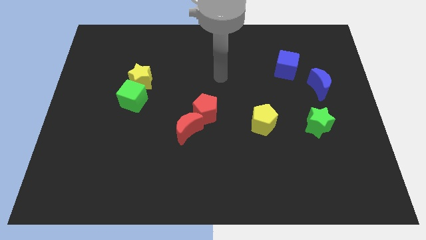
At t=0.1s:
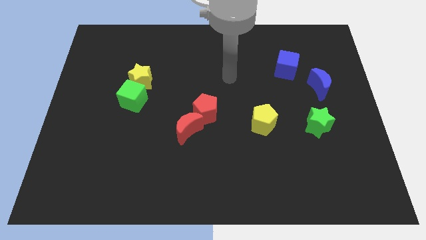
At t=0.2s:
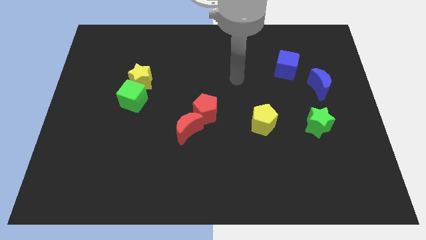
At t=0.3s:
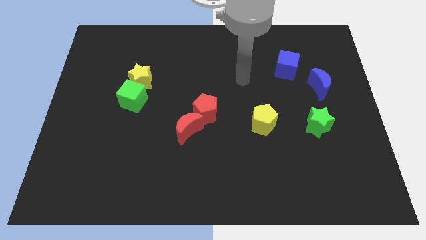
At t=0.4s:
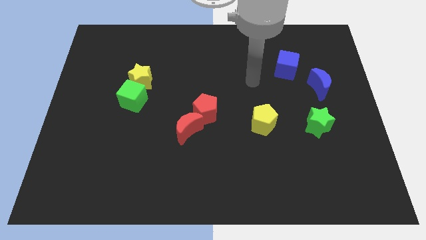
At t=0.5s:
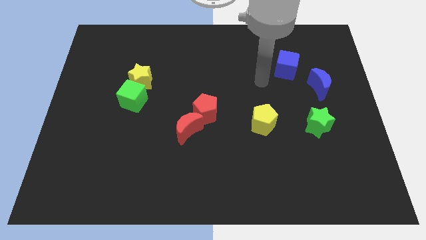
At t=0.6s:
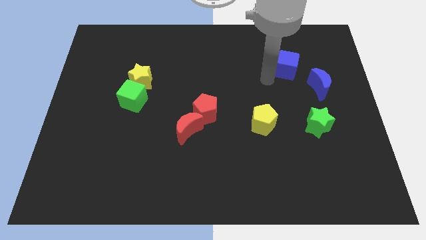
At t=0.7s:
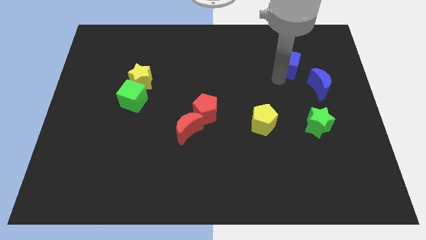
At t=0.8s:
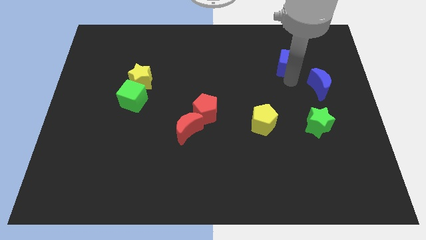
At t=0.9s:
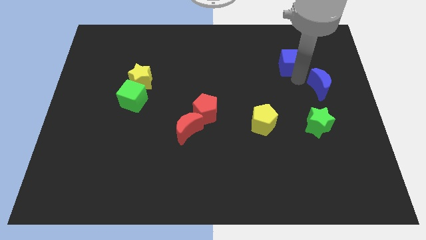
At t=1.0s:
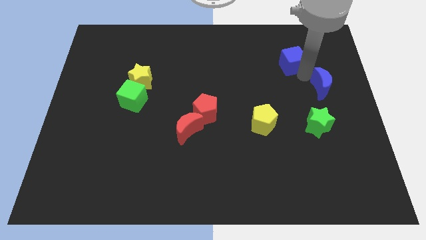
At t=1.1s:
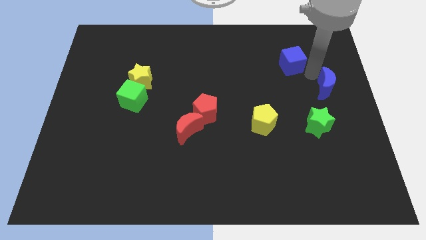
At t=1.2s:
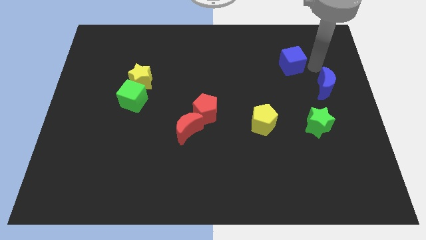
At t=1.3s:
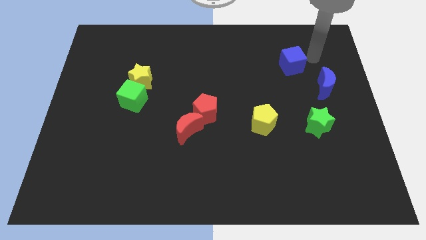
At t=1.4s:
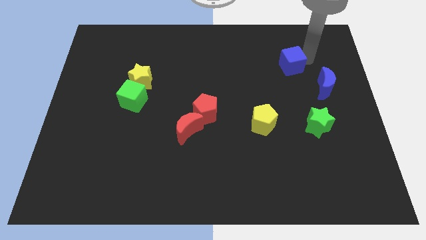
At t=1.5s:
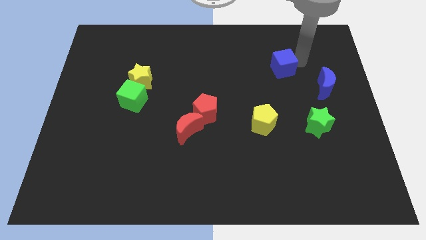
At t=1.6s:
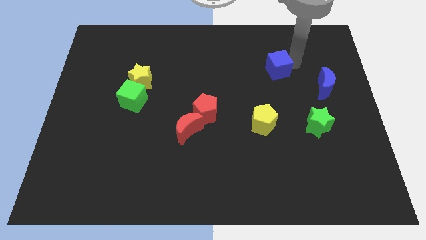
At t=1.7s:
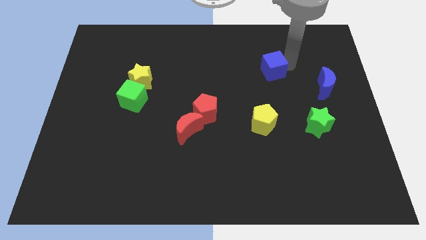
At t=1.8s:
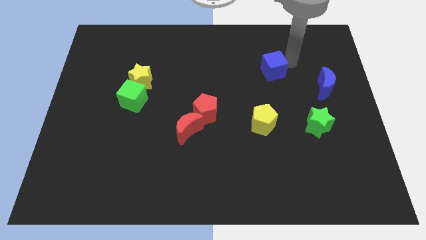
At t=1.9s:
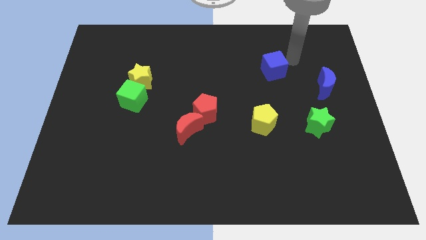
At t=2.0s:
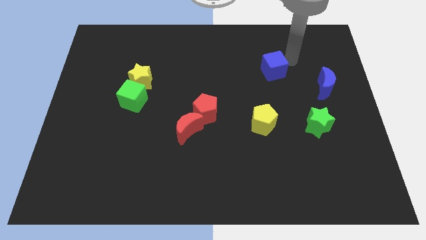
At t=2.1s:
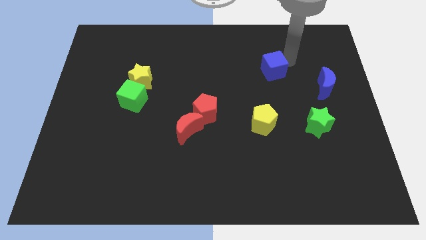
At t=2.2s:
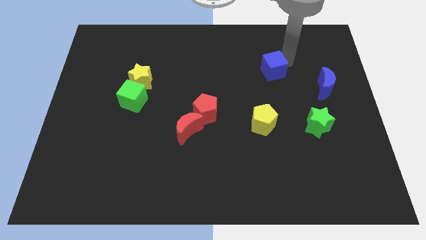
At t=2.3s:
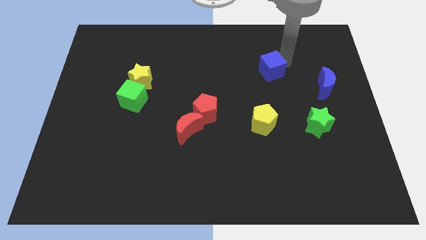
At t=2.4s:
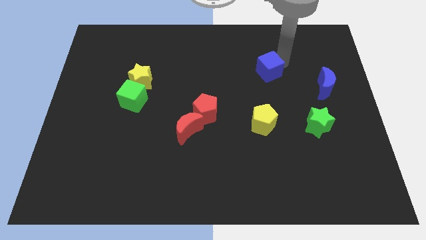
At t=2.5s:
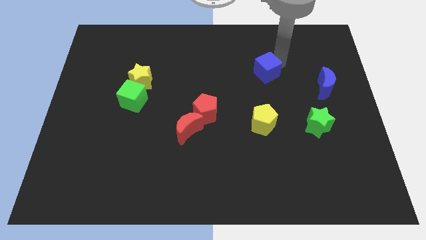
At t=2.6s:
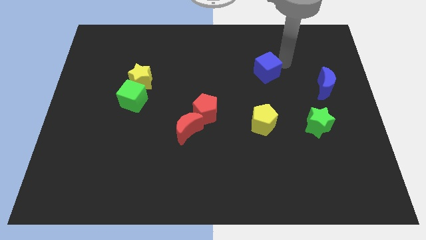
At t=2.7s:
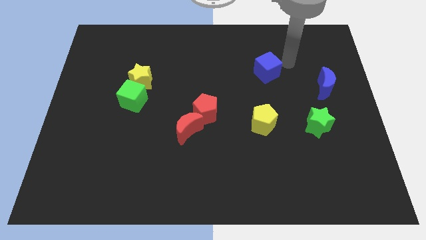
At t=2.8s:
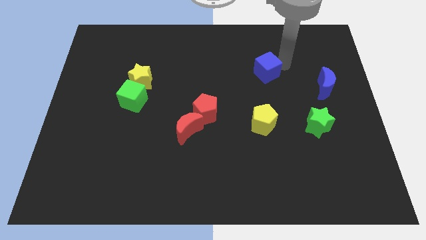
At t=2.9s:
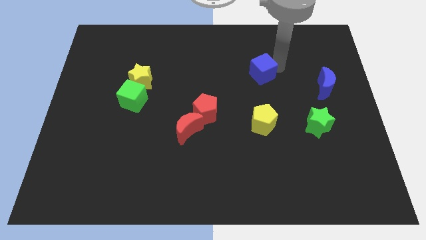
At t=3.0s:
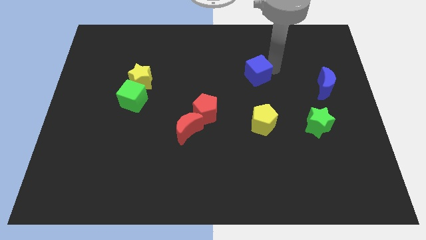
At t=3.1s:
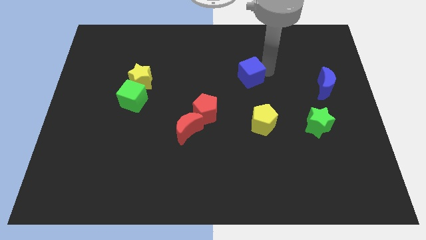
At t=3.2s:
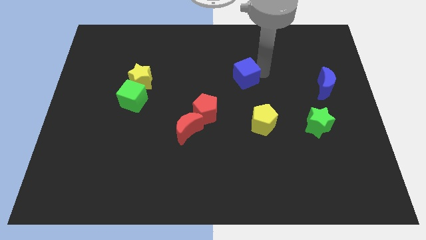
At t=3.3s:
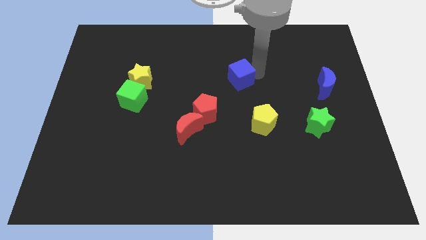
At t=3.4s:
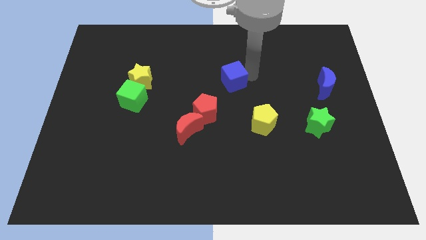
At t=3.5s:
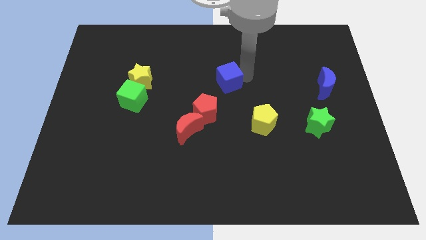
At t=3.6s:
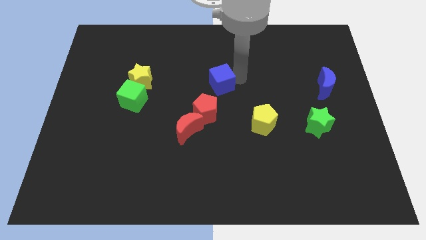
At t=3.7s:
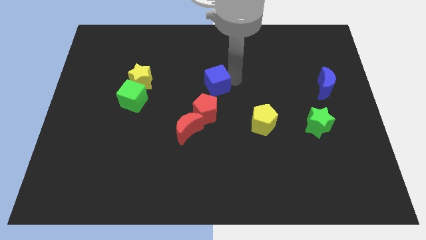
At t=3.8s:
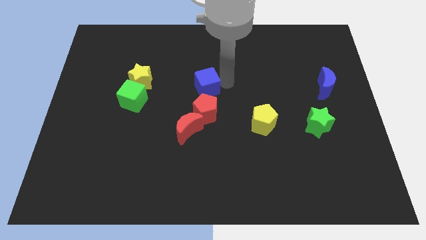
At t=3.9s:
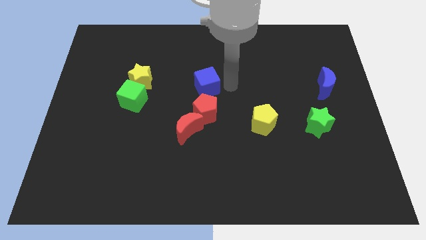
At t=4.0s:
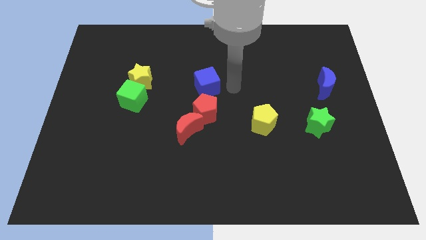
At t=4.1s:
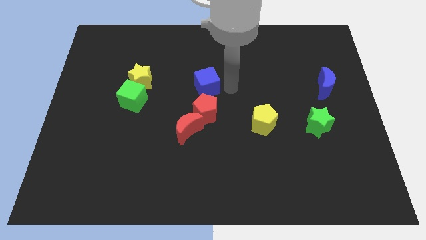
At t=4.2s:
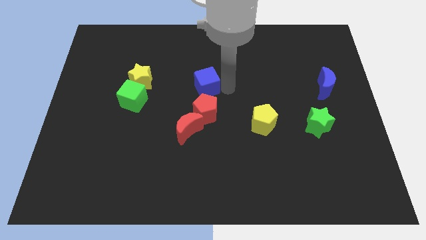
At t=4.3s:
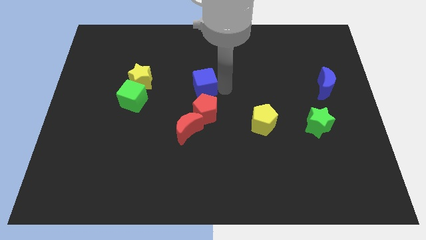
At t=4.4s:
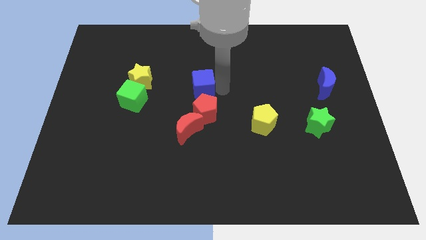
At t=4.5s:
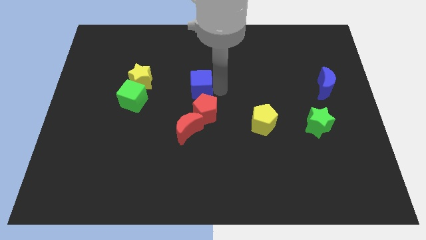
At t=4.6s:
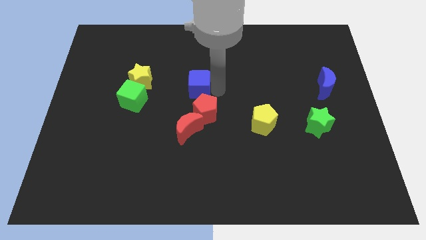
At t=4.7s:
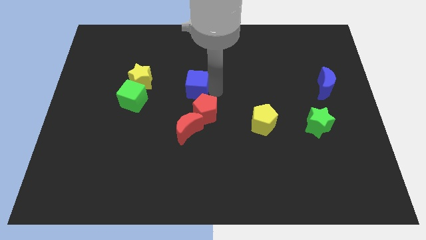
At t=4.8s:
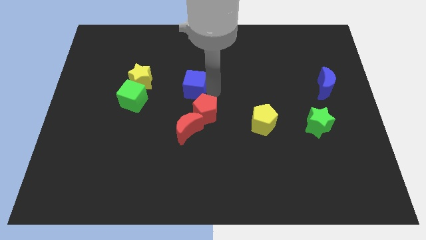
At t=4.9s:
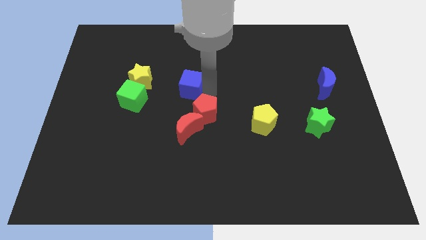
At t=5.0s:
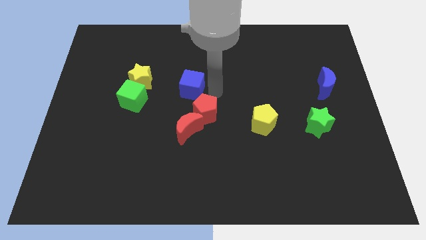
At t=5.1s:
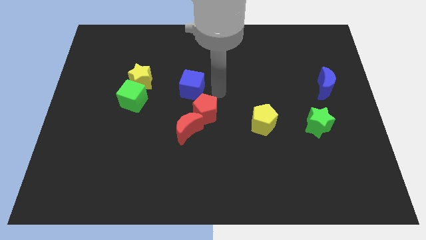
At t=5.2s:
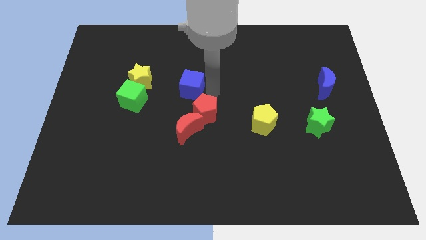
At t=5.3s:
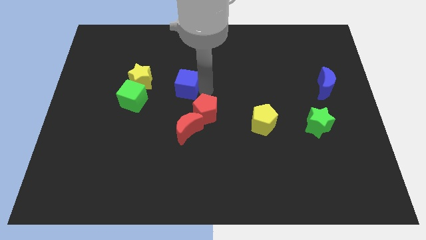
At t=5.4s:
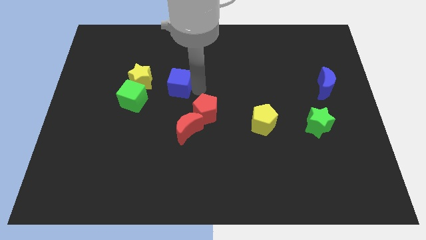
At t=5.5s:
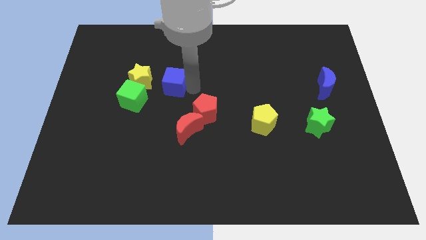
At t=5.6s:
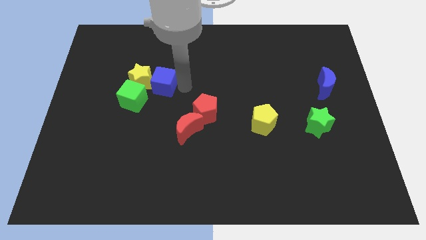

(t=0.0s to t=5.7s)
put the blue cube to the yellow star

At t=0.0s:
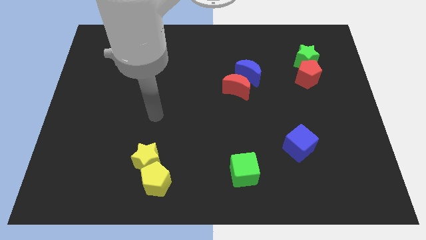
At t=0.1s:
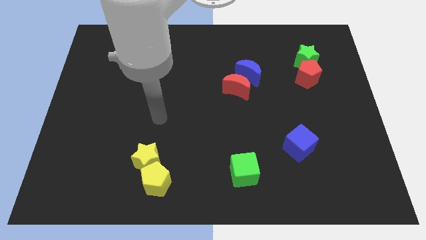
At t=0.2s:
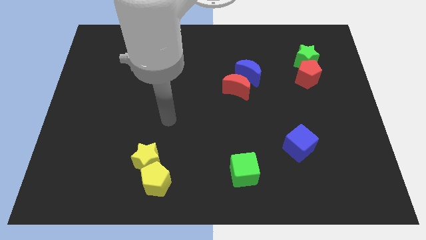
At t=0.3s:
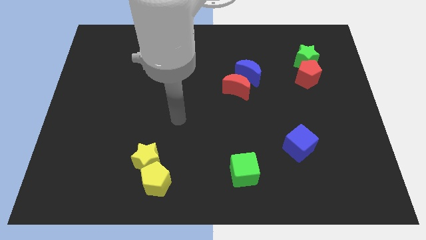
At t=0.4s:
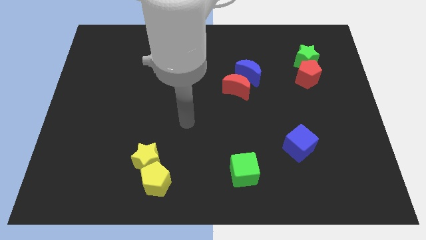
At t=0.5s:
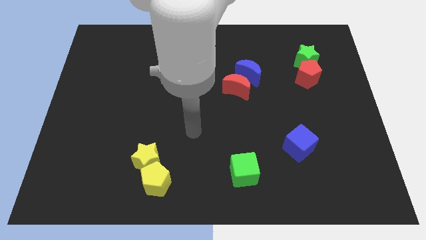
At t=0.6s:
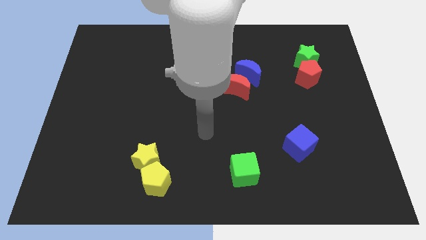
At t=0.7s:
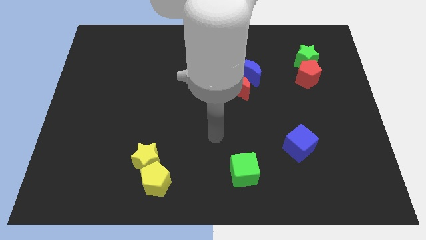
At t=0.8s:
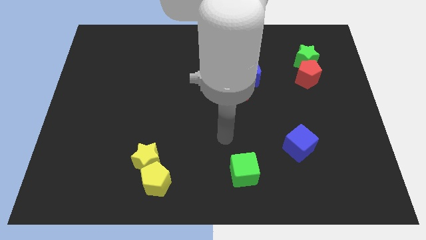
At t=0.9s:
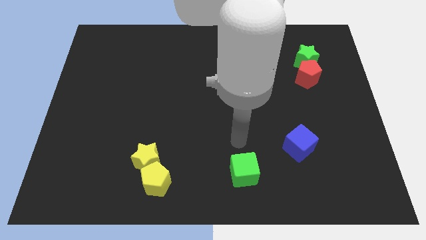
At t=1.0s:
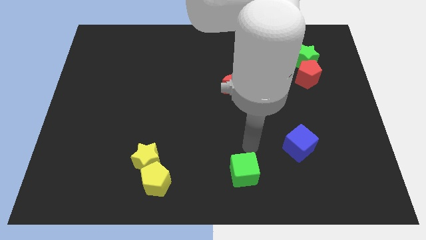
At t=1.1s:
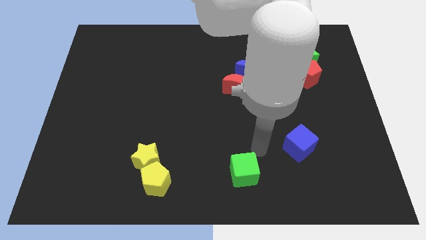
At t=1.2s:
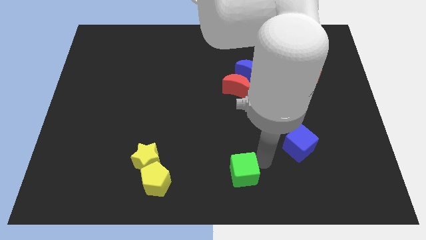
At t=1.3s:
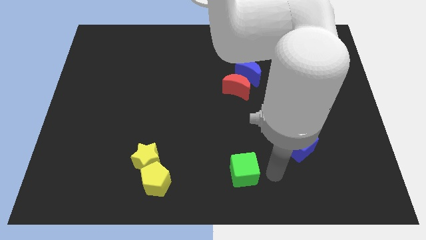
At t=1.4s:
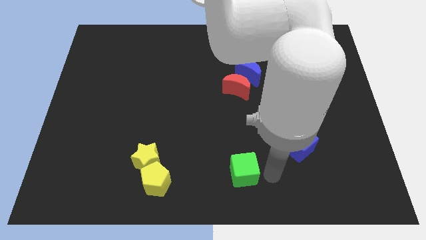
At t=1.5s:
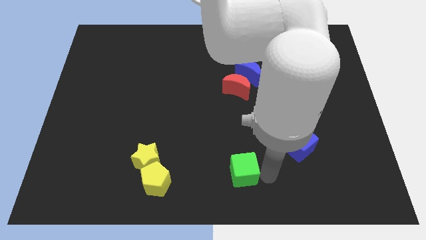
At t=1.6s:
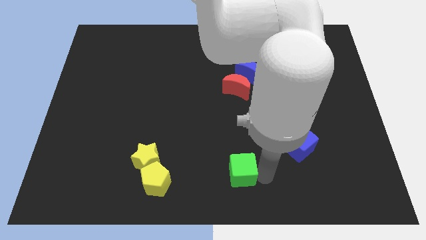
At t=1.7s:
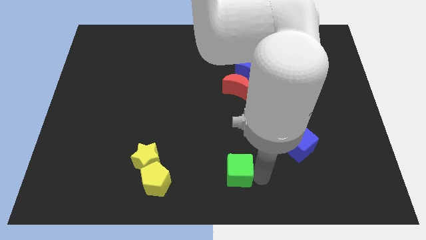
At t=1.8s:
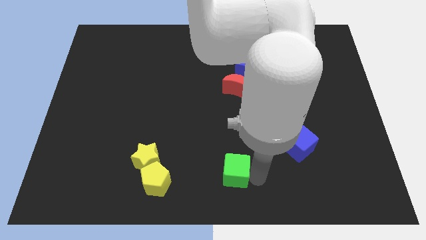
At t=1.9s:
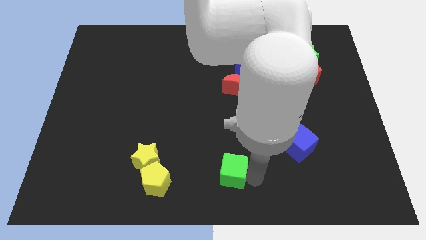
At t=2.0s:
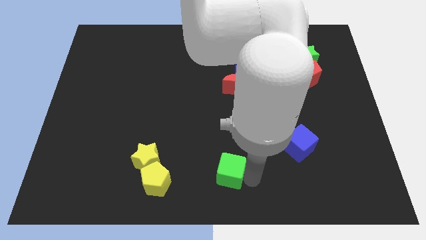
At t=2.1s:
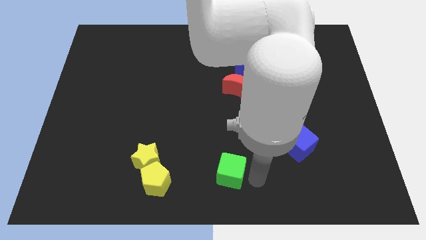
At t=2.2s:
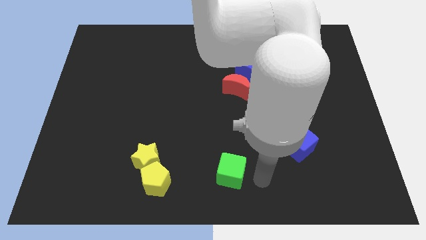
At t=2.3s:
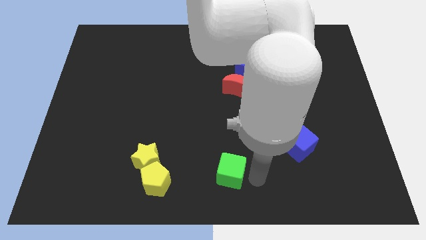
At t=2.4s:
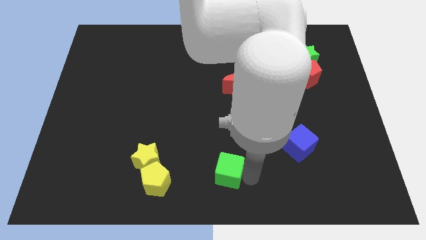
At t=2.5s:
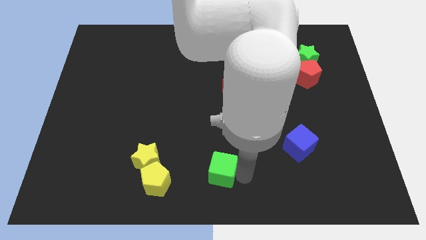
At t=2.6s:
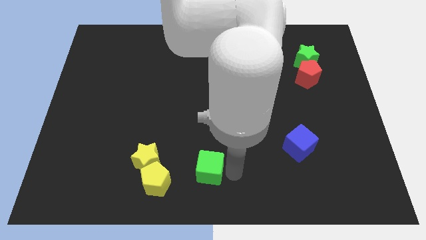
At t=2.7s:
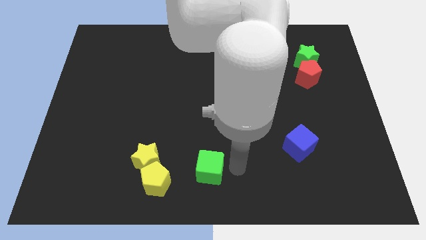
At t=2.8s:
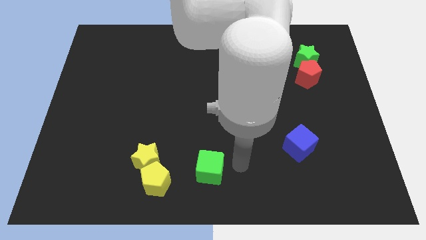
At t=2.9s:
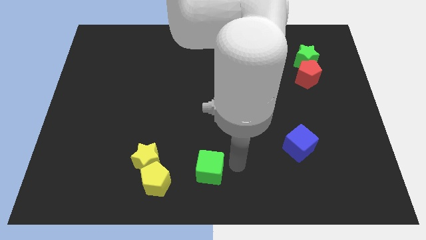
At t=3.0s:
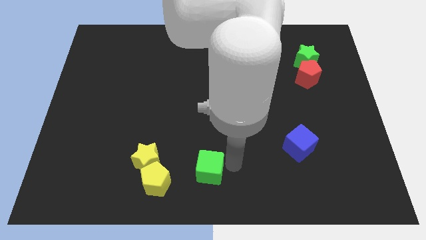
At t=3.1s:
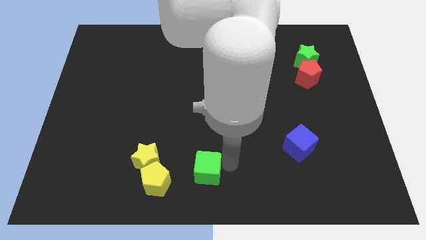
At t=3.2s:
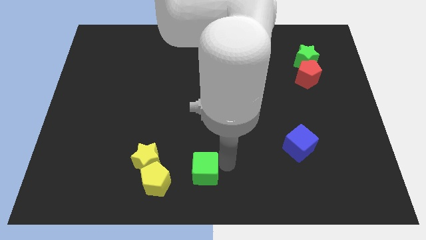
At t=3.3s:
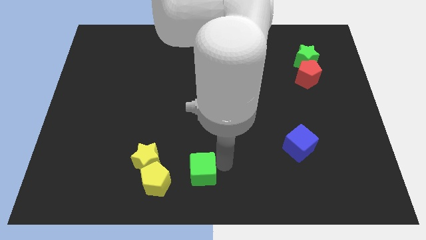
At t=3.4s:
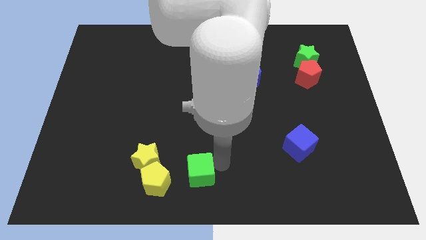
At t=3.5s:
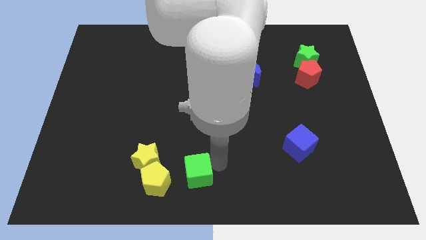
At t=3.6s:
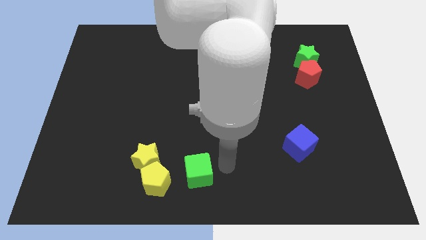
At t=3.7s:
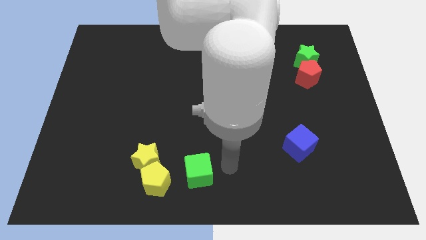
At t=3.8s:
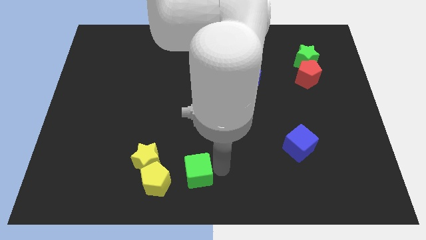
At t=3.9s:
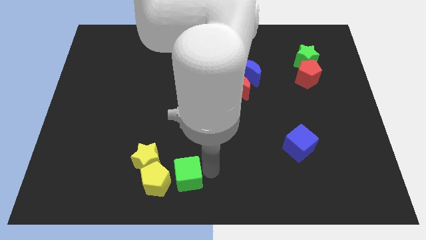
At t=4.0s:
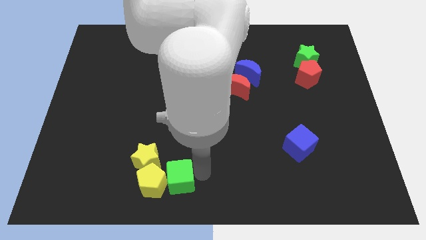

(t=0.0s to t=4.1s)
put the green cube to the yellow pentagon
